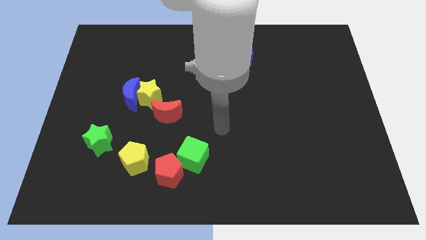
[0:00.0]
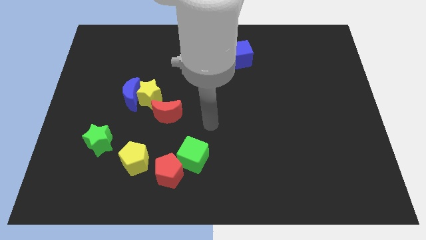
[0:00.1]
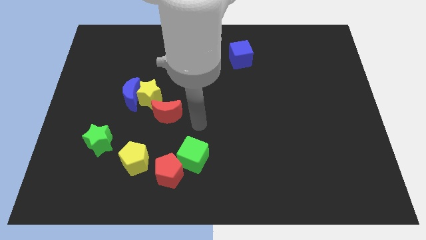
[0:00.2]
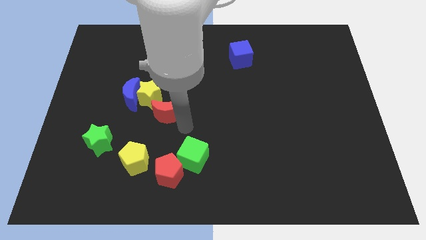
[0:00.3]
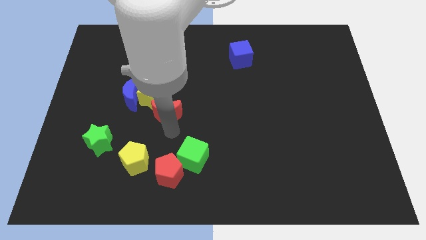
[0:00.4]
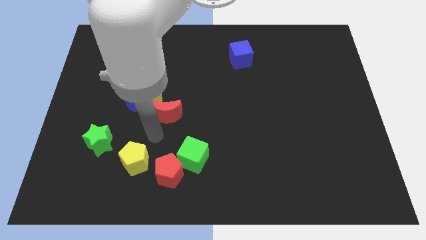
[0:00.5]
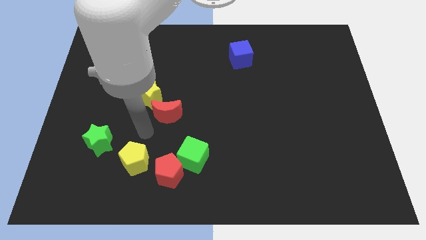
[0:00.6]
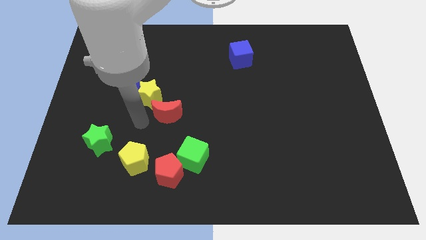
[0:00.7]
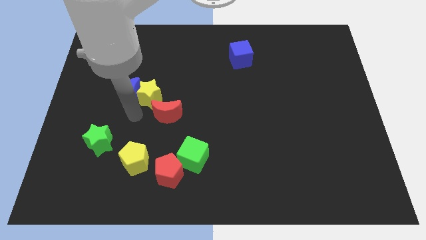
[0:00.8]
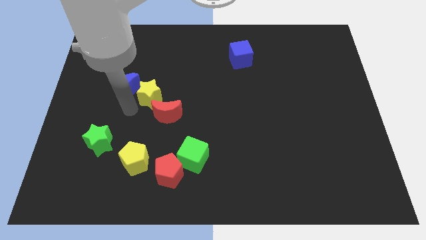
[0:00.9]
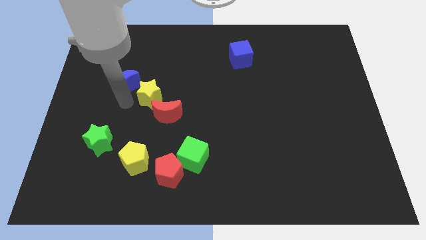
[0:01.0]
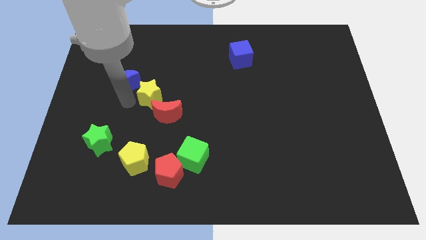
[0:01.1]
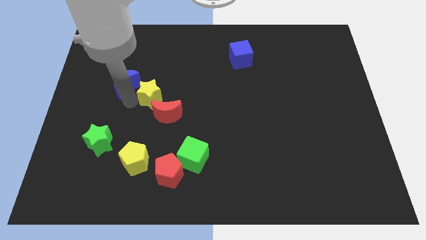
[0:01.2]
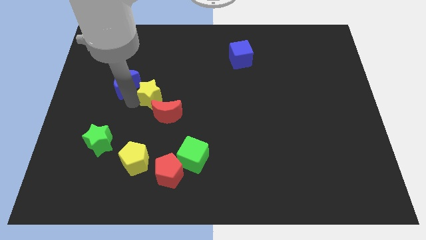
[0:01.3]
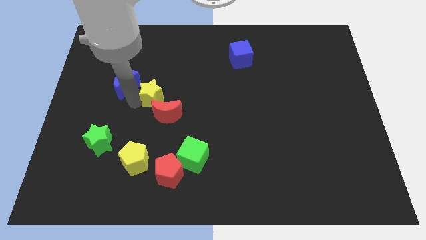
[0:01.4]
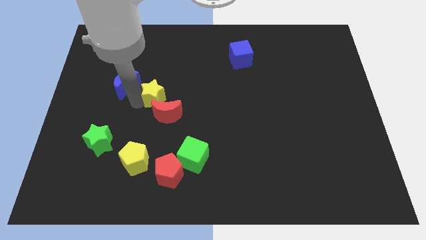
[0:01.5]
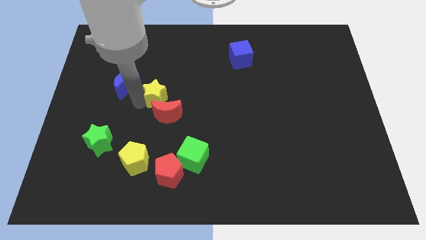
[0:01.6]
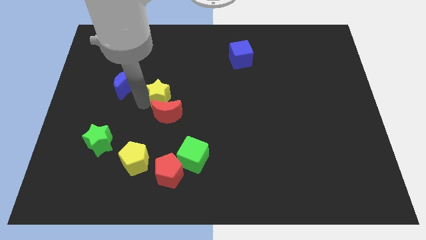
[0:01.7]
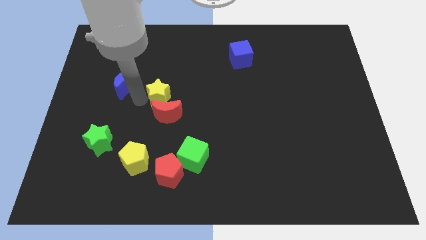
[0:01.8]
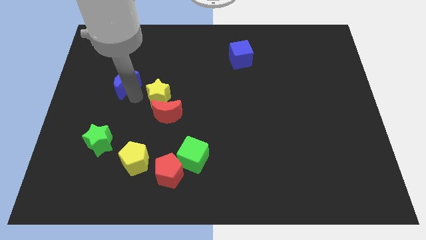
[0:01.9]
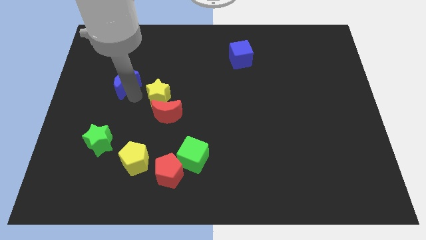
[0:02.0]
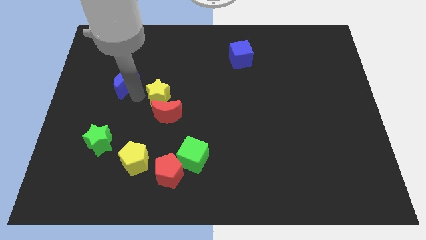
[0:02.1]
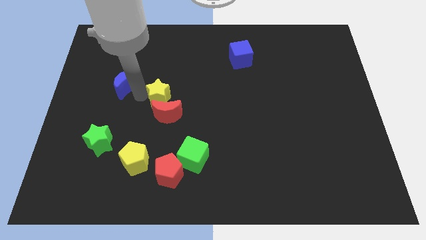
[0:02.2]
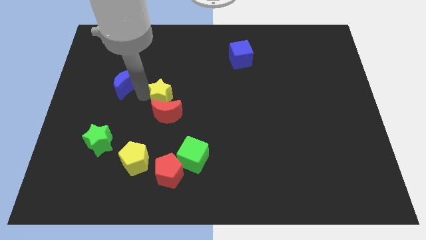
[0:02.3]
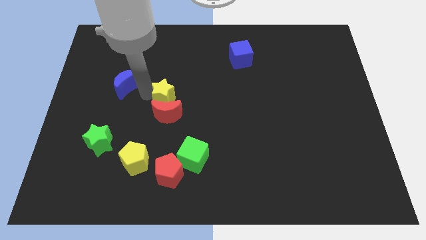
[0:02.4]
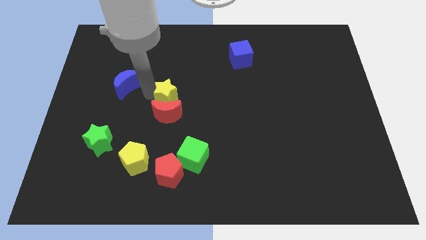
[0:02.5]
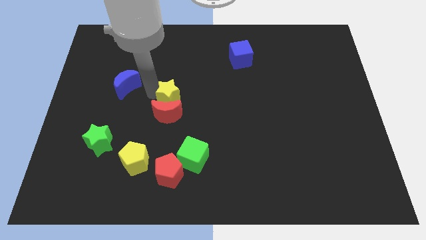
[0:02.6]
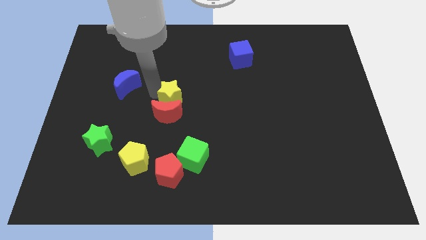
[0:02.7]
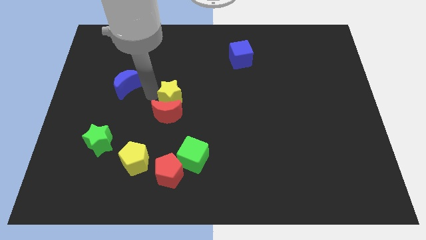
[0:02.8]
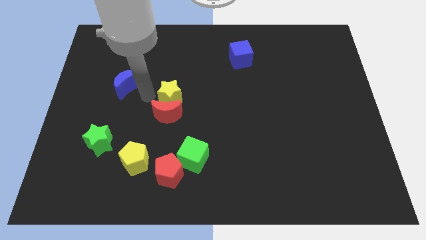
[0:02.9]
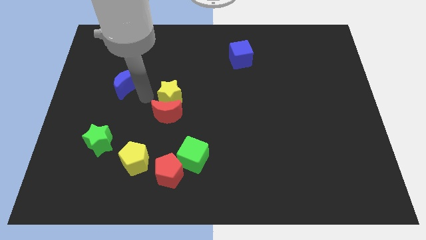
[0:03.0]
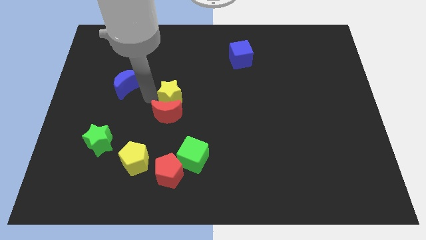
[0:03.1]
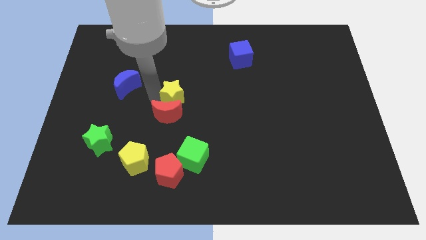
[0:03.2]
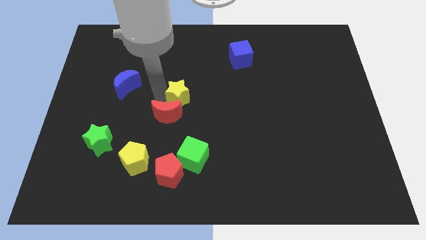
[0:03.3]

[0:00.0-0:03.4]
slightly slide the yellow star to the right

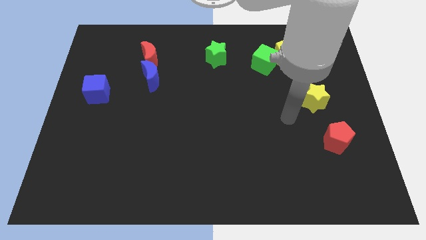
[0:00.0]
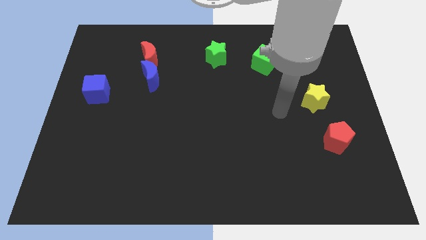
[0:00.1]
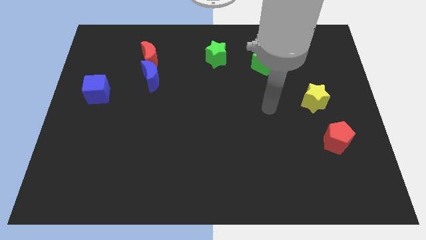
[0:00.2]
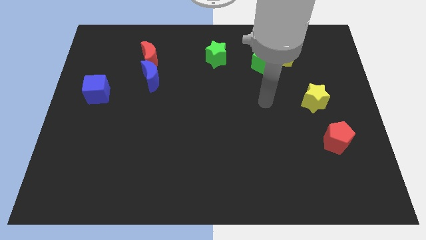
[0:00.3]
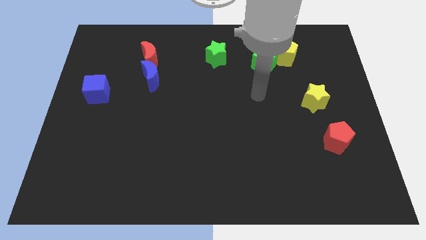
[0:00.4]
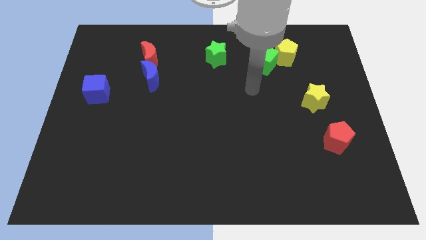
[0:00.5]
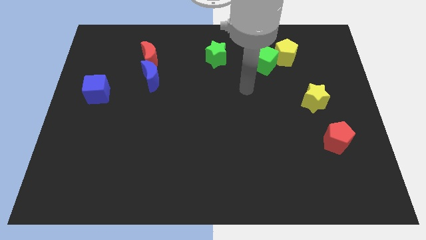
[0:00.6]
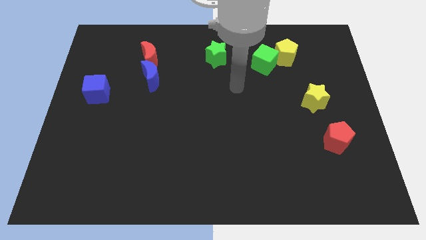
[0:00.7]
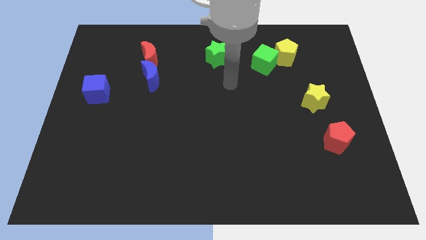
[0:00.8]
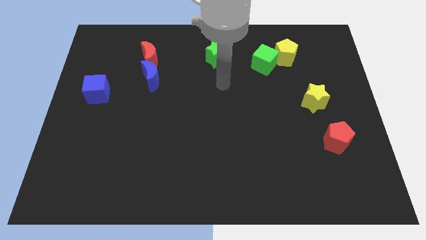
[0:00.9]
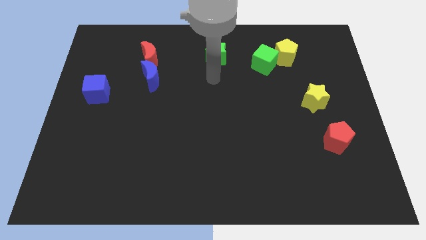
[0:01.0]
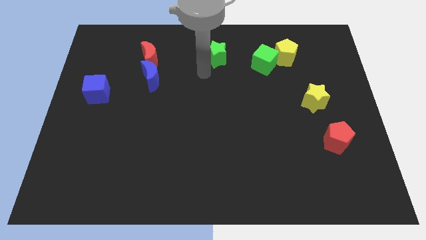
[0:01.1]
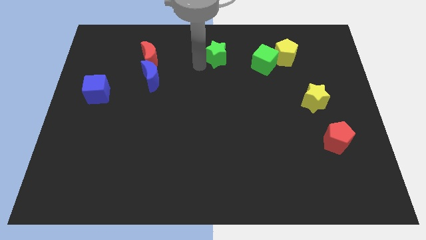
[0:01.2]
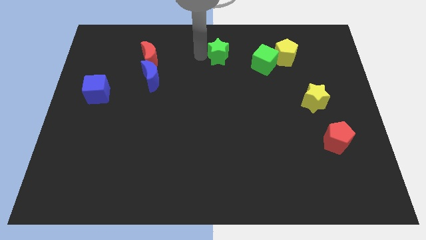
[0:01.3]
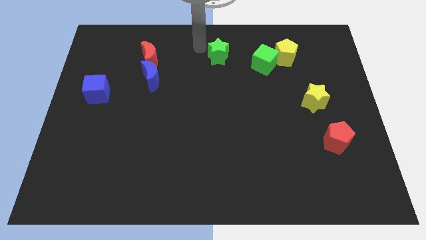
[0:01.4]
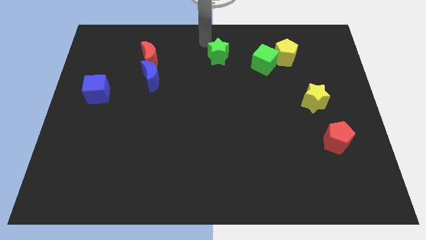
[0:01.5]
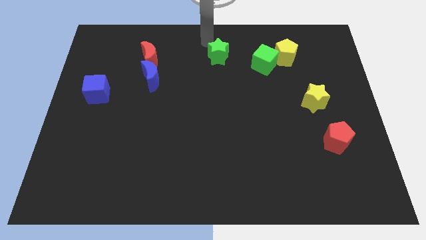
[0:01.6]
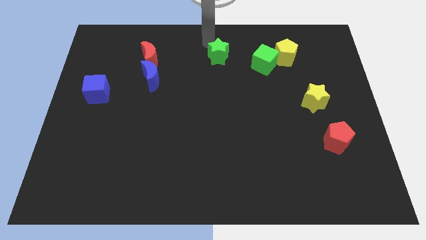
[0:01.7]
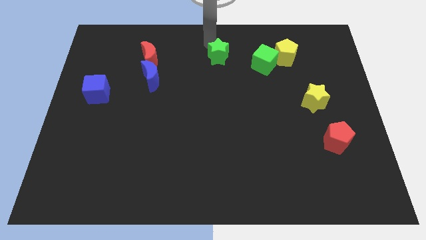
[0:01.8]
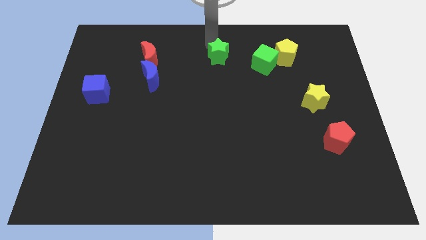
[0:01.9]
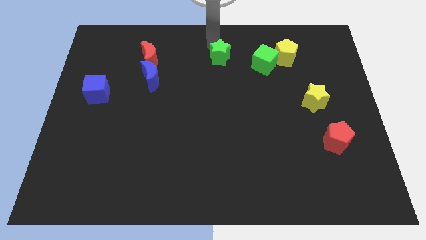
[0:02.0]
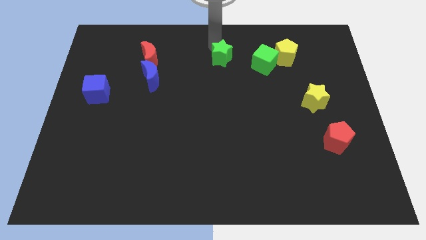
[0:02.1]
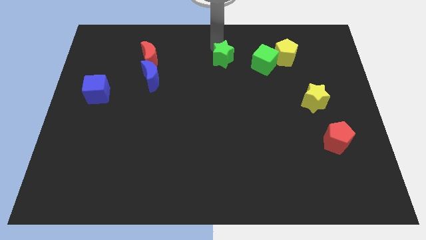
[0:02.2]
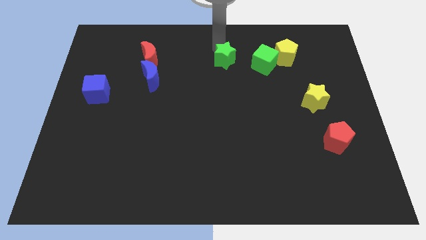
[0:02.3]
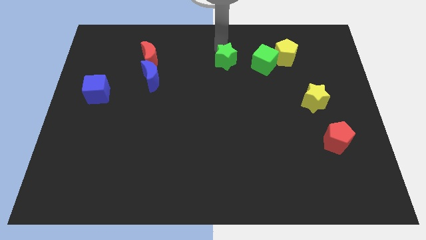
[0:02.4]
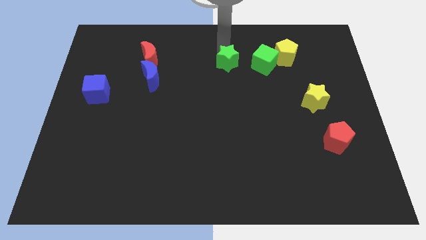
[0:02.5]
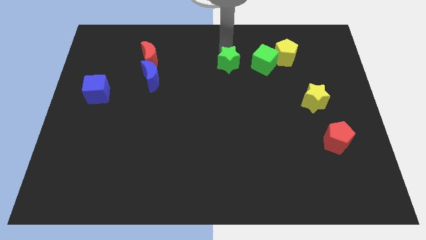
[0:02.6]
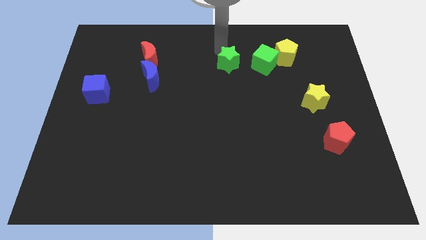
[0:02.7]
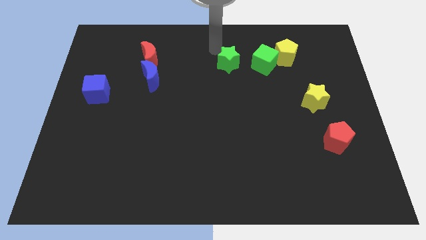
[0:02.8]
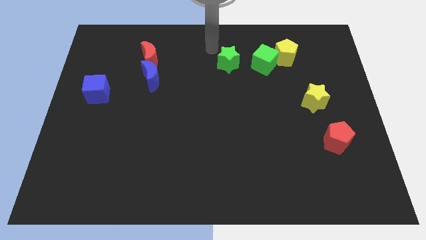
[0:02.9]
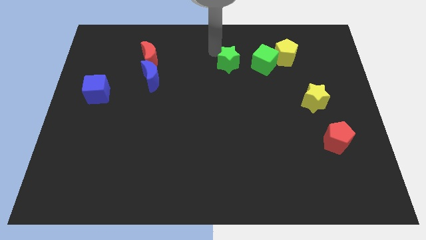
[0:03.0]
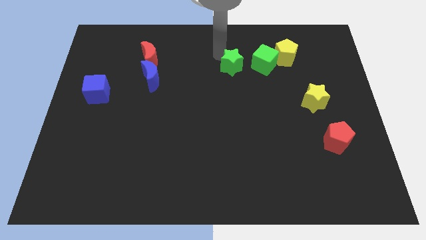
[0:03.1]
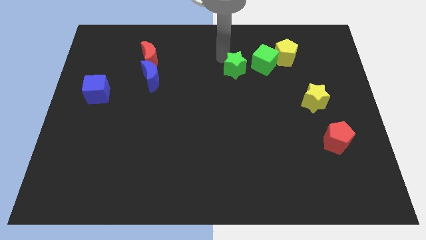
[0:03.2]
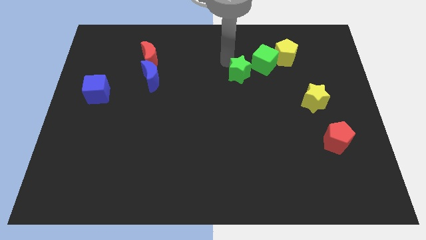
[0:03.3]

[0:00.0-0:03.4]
slightly slide the green star downwards and then right

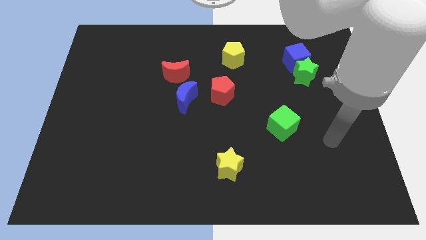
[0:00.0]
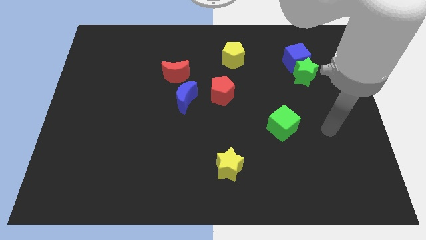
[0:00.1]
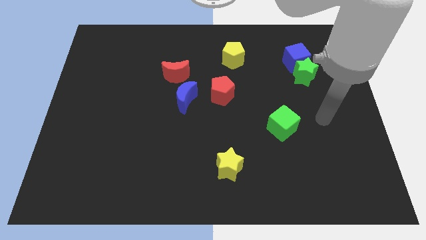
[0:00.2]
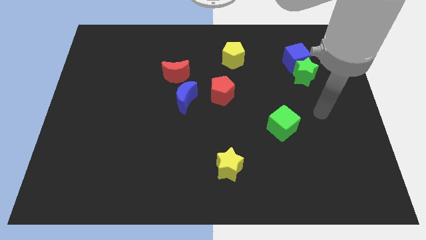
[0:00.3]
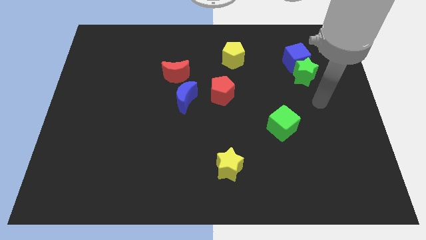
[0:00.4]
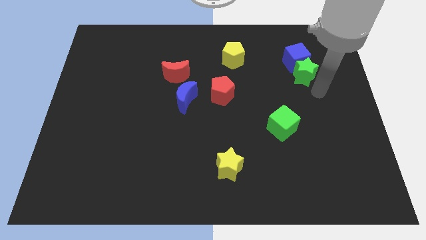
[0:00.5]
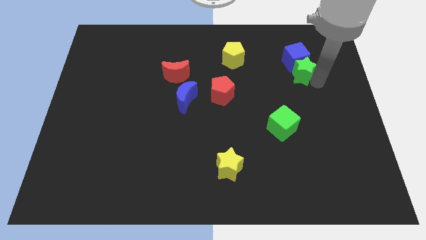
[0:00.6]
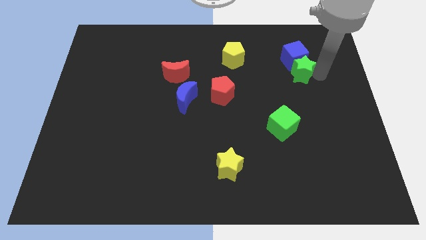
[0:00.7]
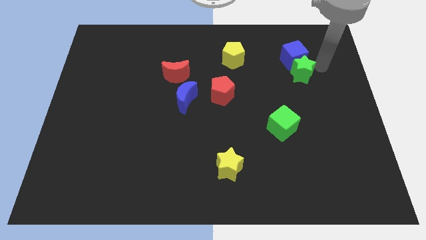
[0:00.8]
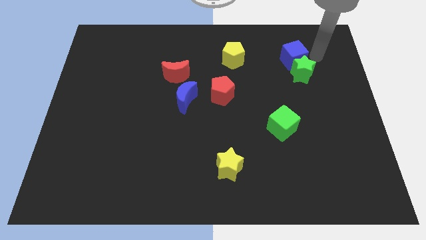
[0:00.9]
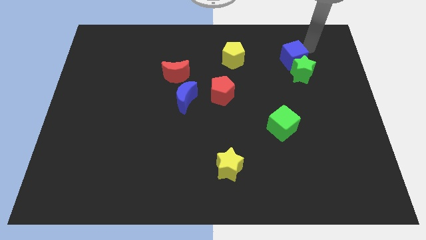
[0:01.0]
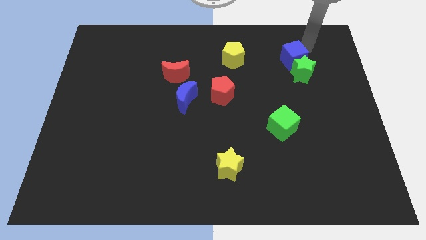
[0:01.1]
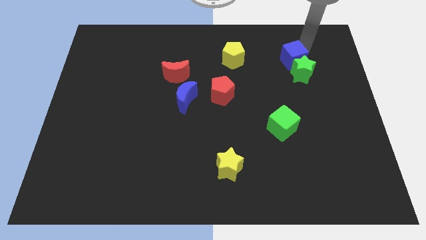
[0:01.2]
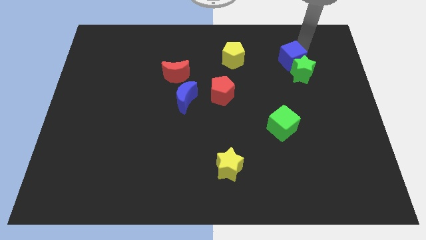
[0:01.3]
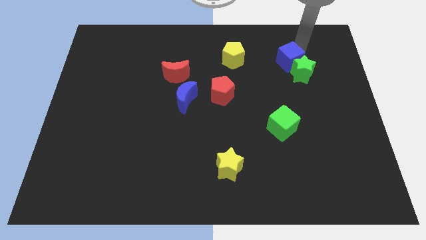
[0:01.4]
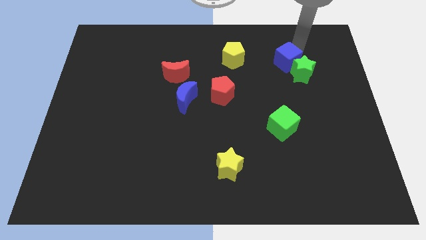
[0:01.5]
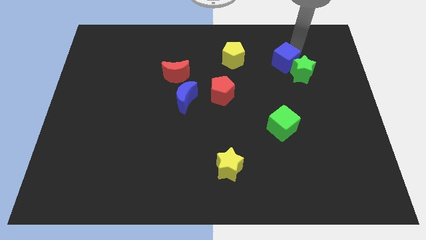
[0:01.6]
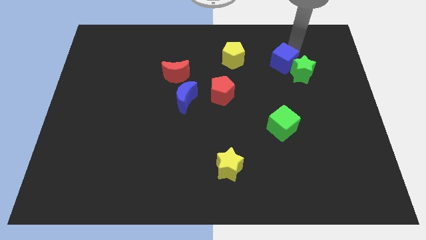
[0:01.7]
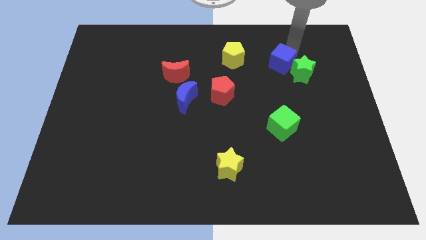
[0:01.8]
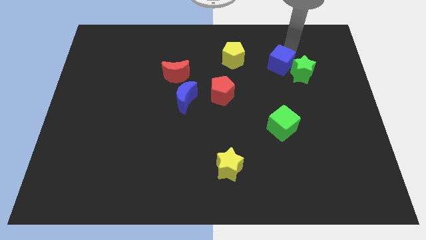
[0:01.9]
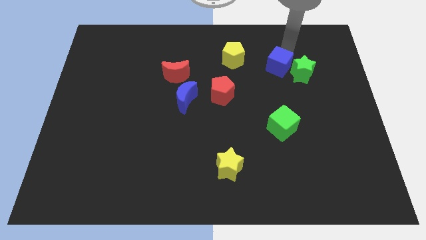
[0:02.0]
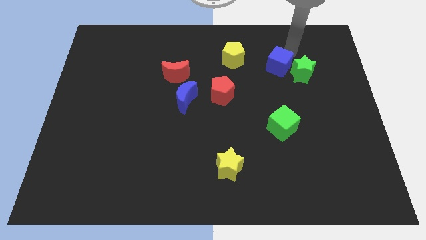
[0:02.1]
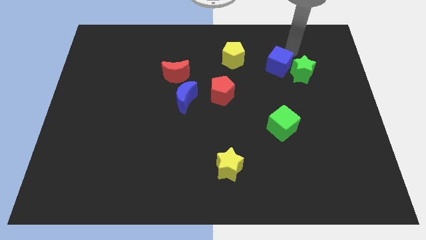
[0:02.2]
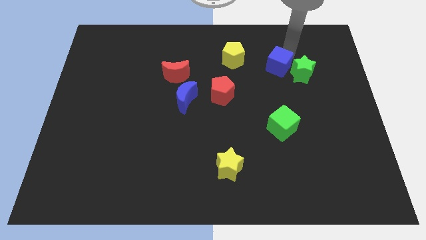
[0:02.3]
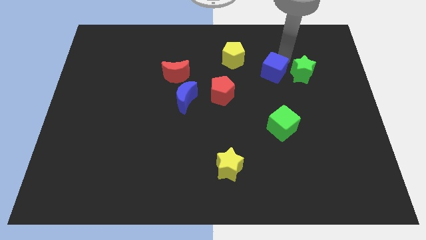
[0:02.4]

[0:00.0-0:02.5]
slightly move the blue cube downwards and left
